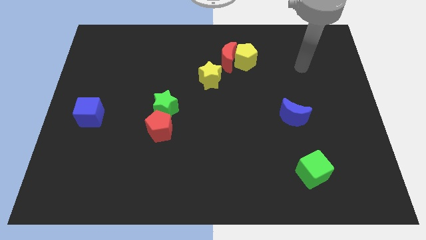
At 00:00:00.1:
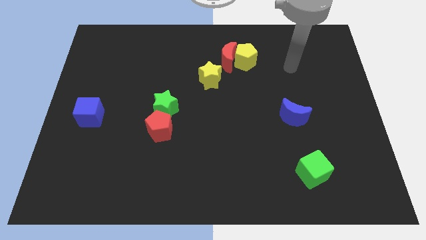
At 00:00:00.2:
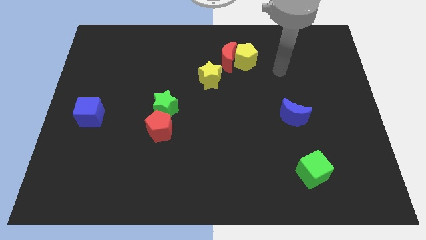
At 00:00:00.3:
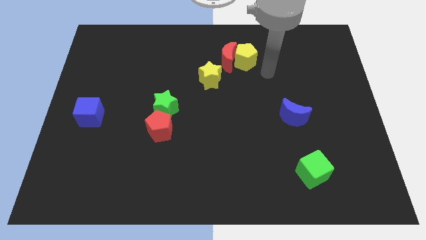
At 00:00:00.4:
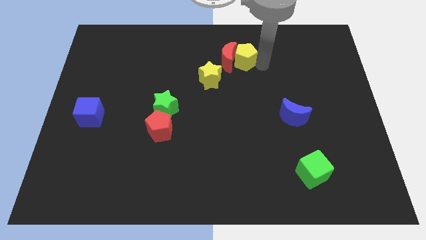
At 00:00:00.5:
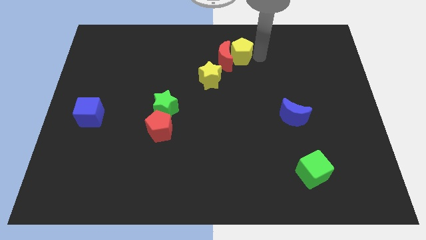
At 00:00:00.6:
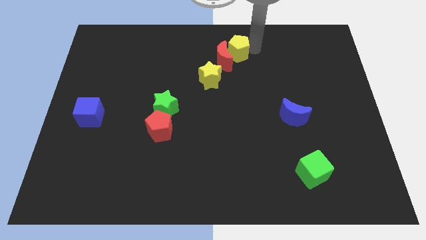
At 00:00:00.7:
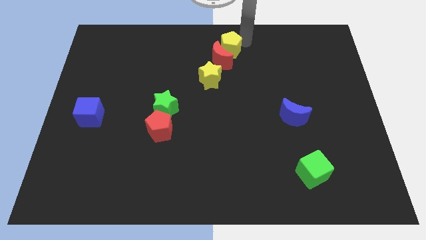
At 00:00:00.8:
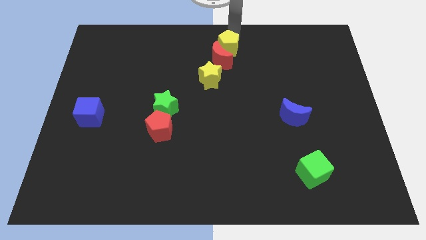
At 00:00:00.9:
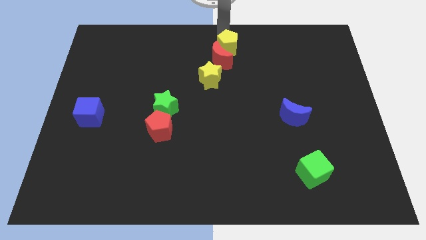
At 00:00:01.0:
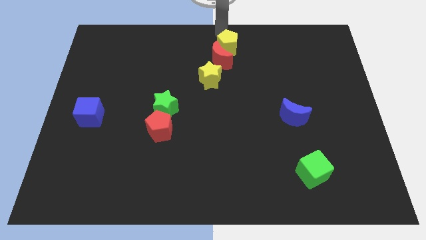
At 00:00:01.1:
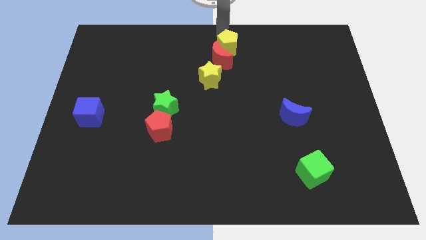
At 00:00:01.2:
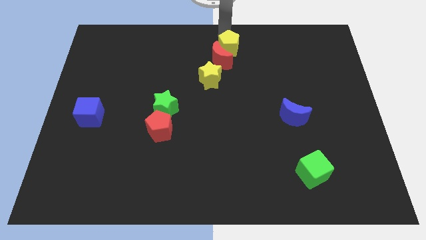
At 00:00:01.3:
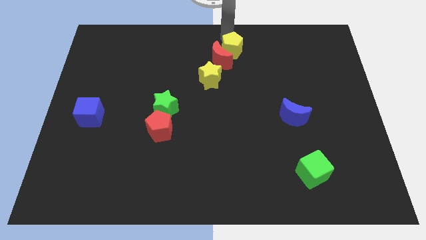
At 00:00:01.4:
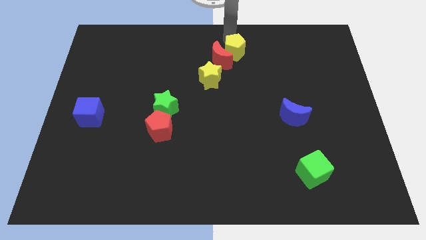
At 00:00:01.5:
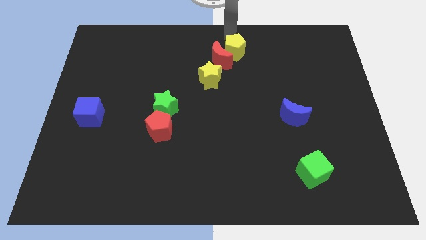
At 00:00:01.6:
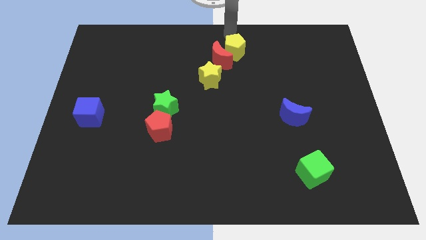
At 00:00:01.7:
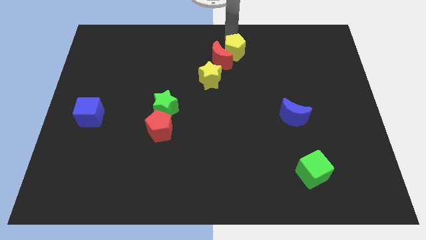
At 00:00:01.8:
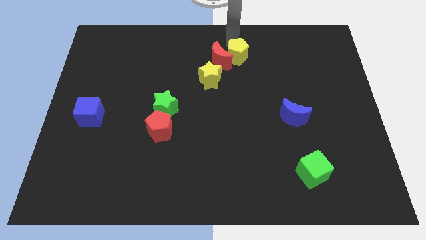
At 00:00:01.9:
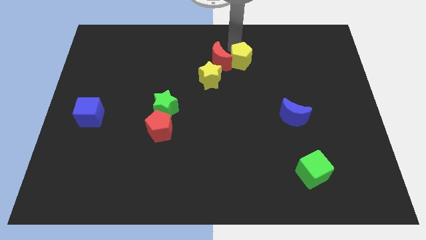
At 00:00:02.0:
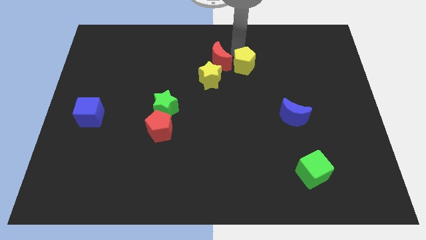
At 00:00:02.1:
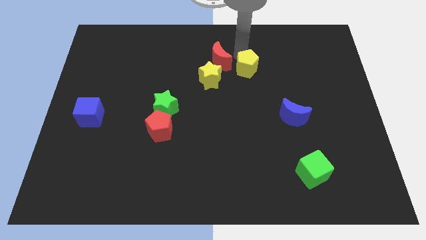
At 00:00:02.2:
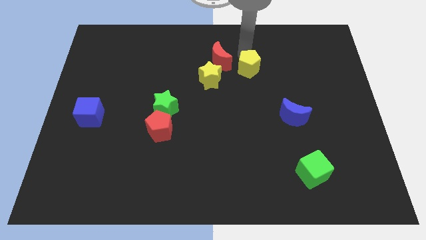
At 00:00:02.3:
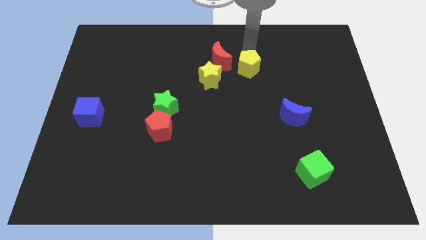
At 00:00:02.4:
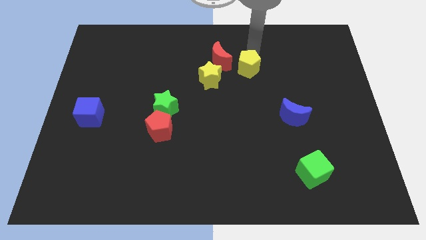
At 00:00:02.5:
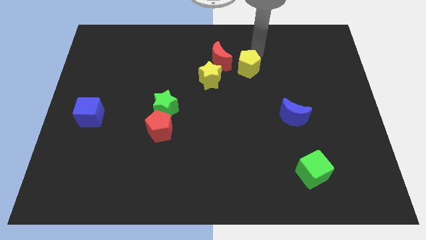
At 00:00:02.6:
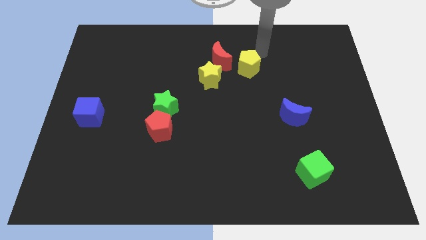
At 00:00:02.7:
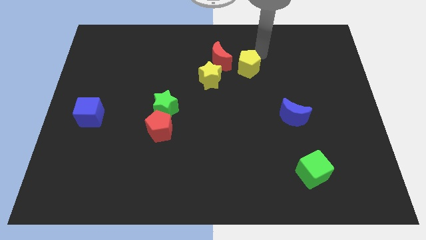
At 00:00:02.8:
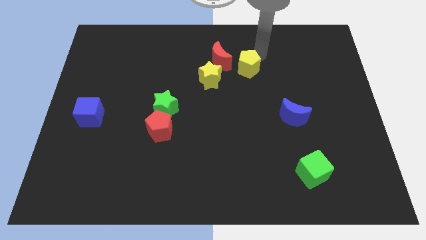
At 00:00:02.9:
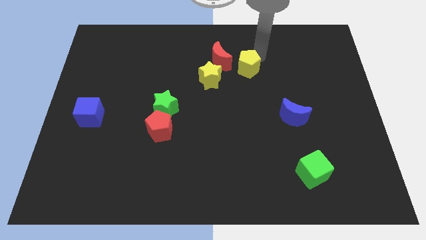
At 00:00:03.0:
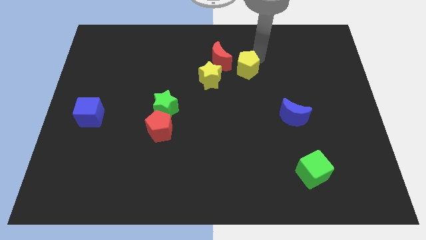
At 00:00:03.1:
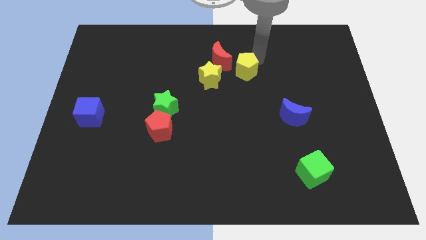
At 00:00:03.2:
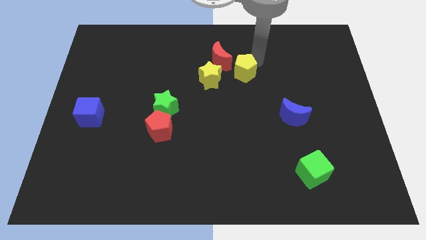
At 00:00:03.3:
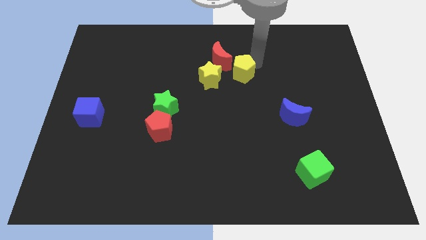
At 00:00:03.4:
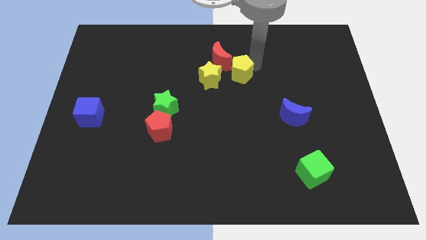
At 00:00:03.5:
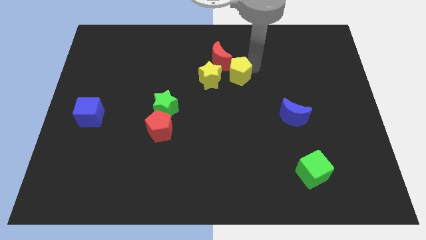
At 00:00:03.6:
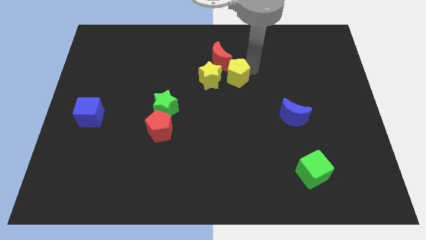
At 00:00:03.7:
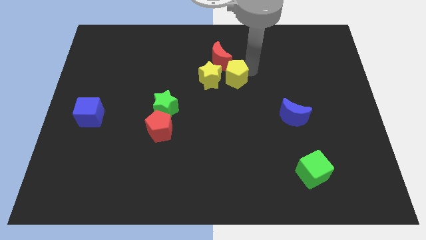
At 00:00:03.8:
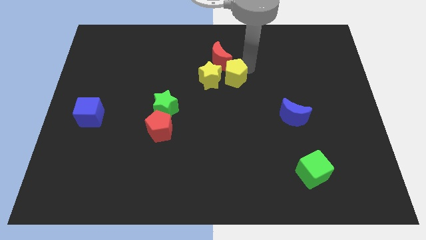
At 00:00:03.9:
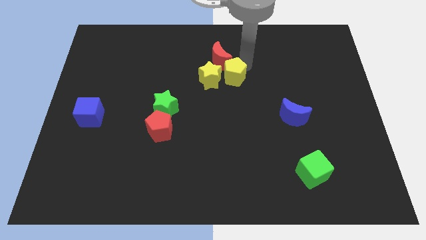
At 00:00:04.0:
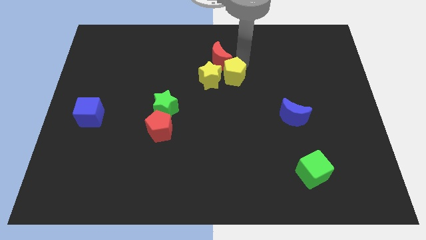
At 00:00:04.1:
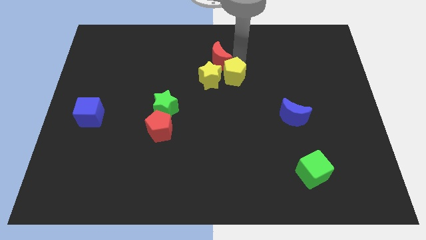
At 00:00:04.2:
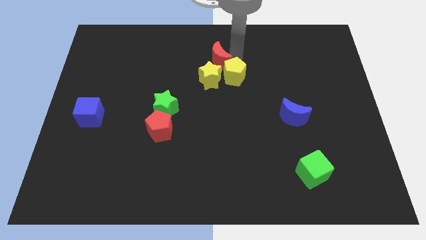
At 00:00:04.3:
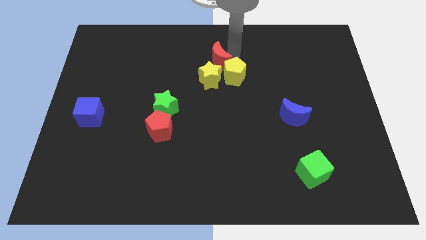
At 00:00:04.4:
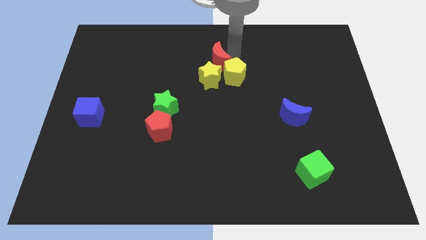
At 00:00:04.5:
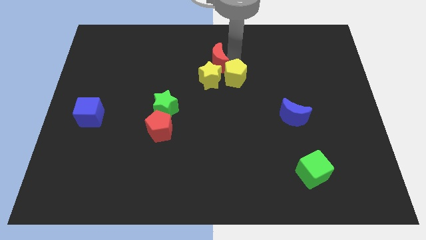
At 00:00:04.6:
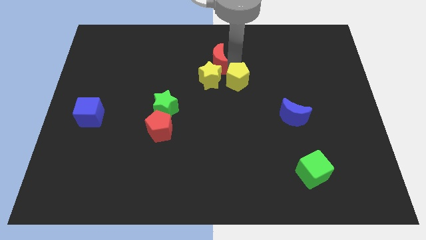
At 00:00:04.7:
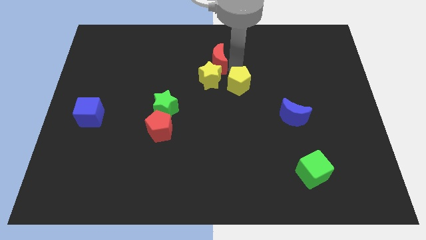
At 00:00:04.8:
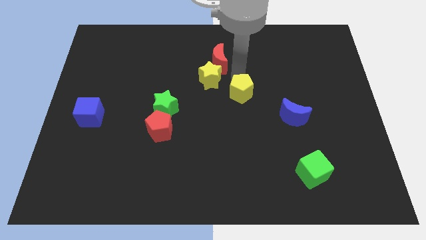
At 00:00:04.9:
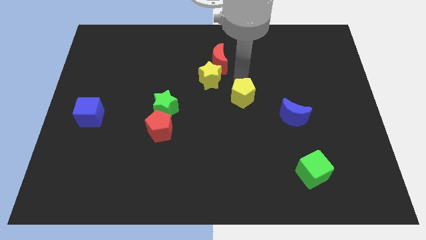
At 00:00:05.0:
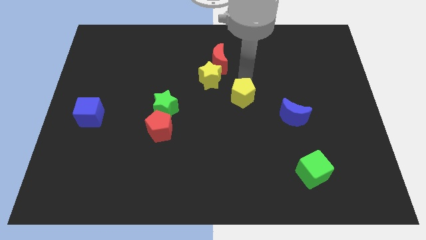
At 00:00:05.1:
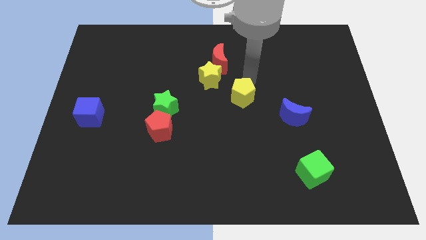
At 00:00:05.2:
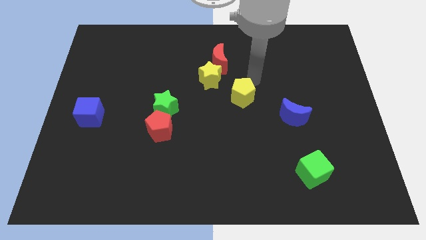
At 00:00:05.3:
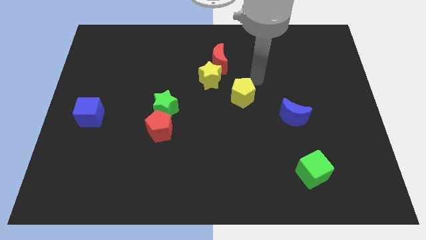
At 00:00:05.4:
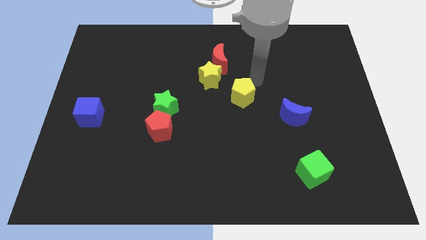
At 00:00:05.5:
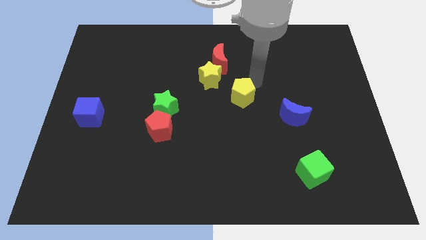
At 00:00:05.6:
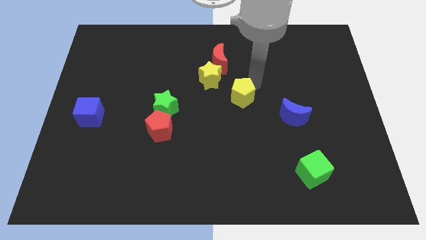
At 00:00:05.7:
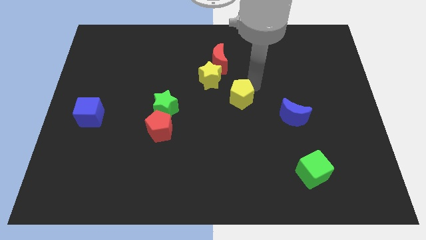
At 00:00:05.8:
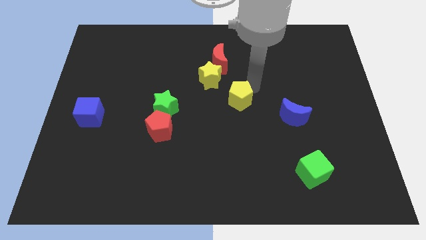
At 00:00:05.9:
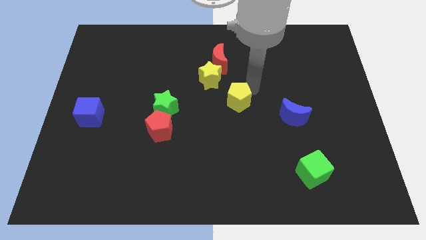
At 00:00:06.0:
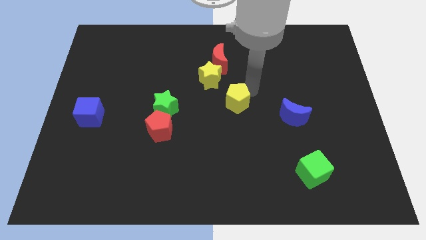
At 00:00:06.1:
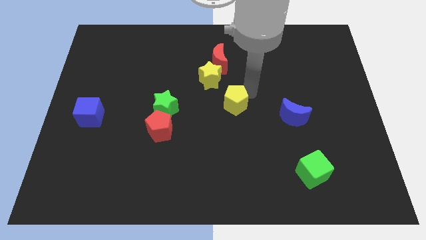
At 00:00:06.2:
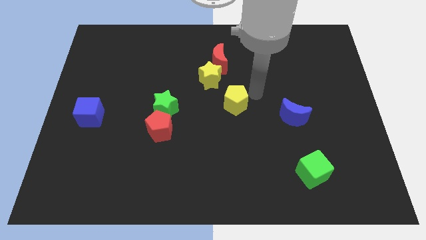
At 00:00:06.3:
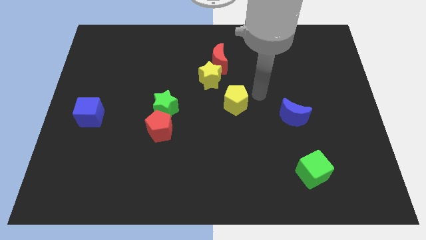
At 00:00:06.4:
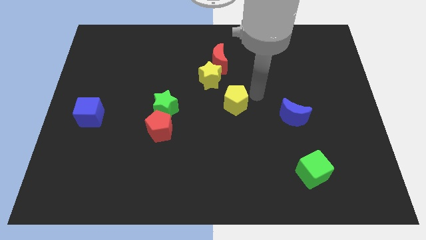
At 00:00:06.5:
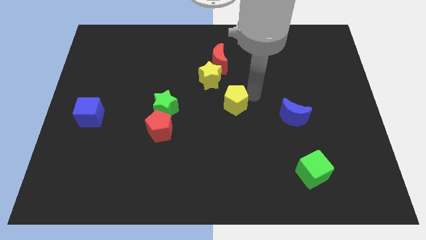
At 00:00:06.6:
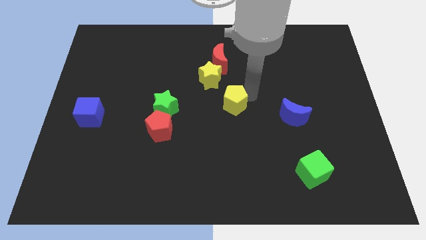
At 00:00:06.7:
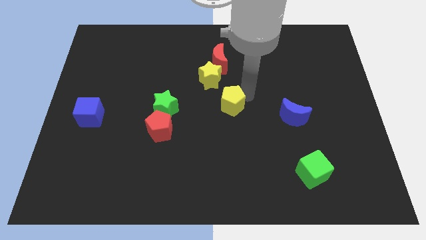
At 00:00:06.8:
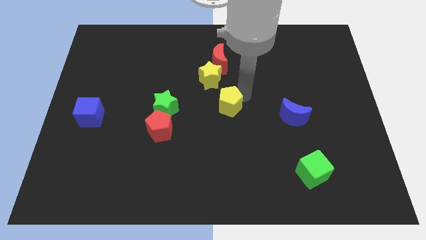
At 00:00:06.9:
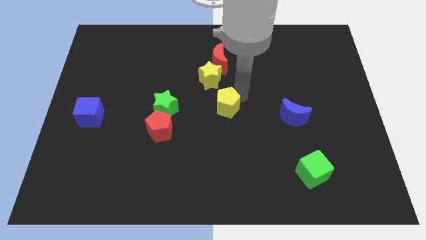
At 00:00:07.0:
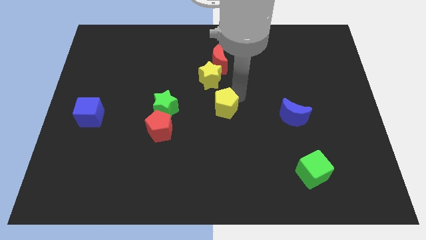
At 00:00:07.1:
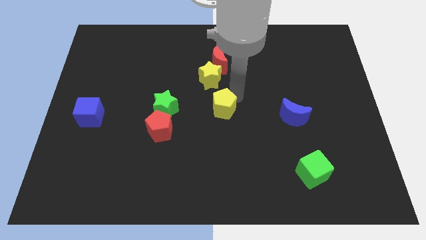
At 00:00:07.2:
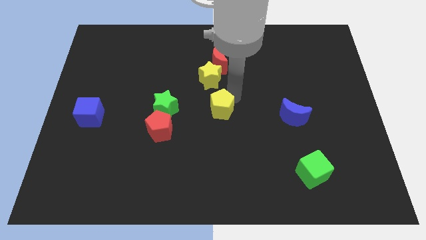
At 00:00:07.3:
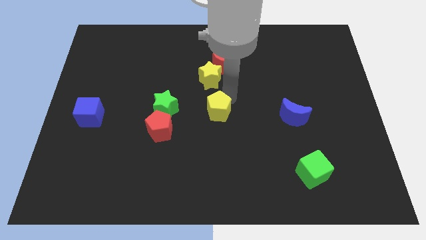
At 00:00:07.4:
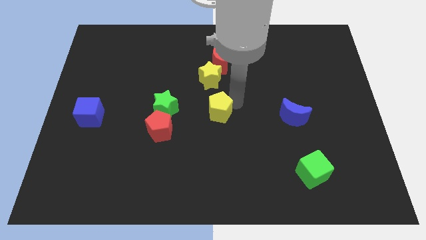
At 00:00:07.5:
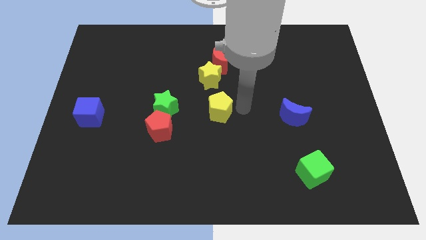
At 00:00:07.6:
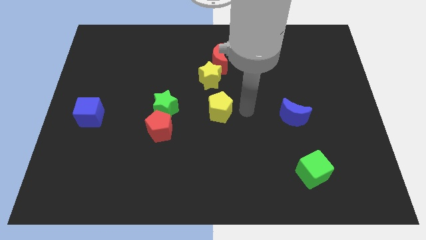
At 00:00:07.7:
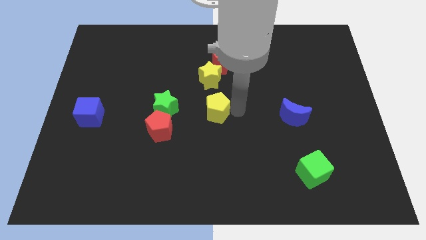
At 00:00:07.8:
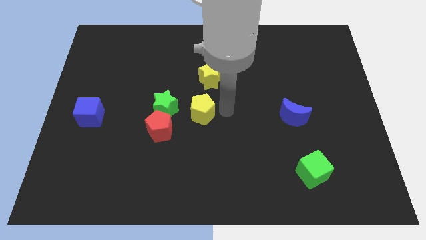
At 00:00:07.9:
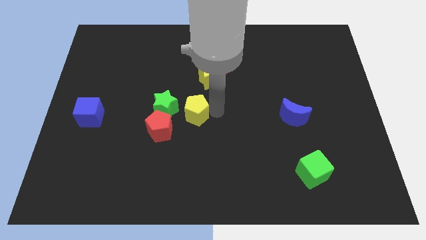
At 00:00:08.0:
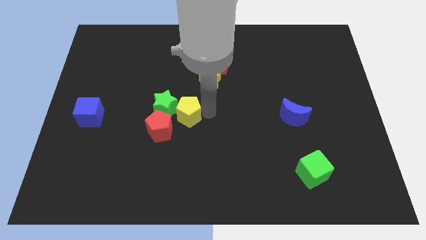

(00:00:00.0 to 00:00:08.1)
put the yellow pentagon towards the green star
